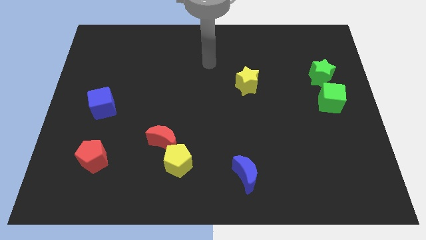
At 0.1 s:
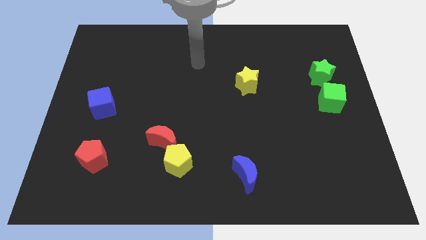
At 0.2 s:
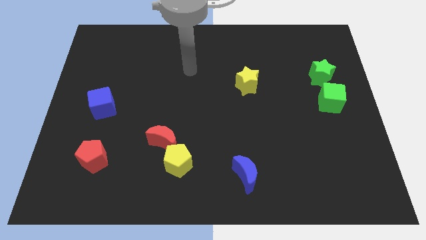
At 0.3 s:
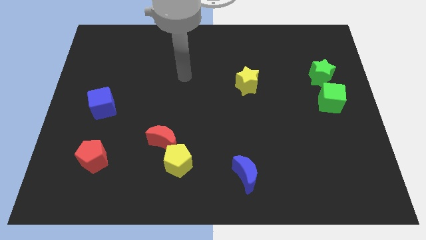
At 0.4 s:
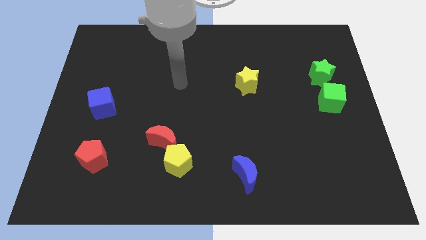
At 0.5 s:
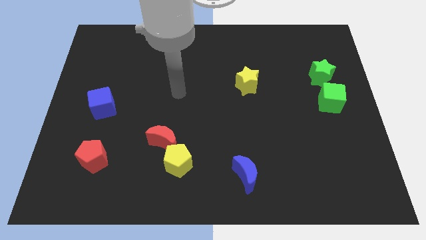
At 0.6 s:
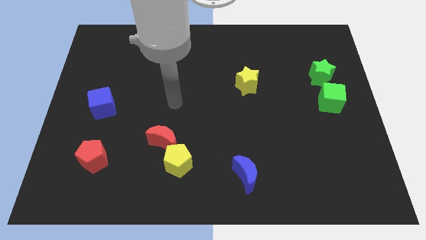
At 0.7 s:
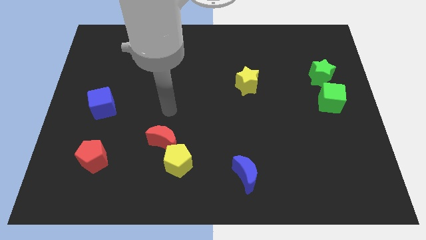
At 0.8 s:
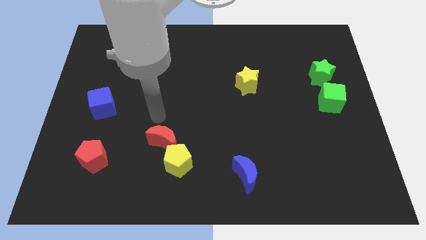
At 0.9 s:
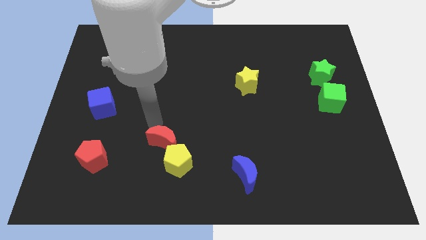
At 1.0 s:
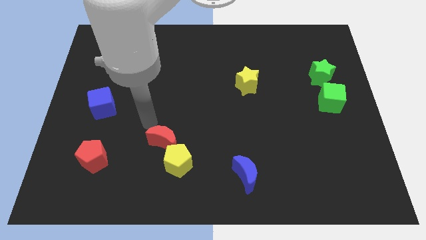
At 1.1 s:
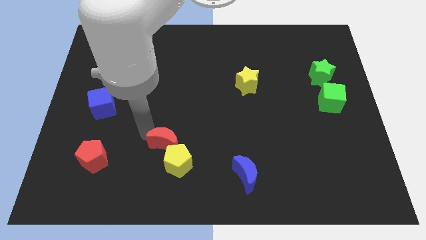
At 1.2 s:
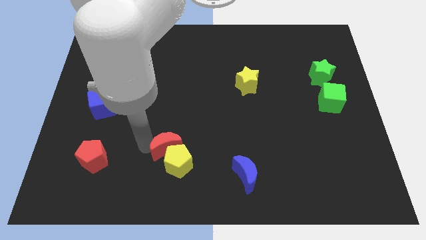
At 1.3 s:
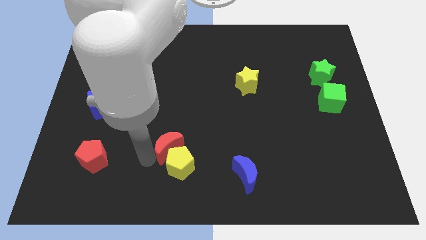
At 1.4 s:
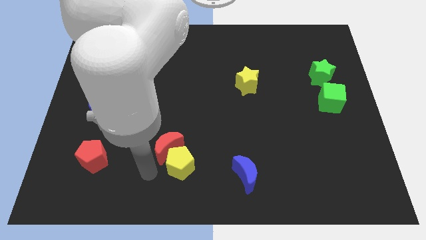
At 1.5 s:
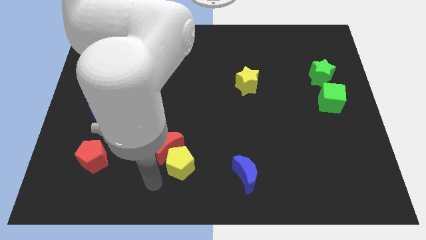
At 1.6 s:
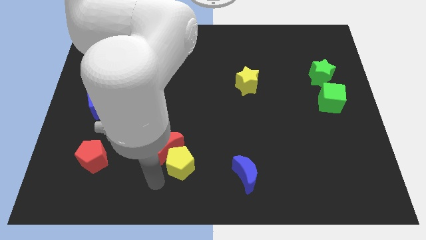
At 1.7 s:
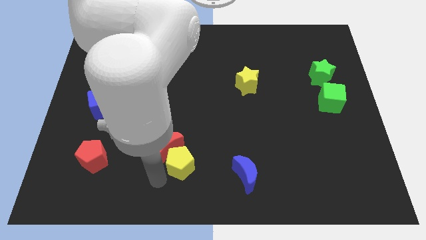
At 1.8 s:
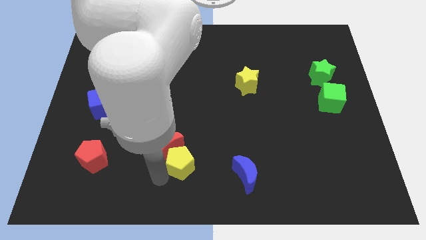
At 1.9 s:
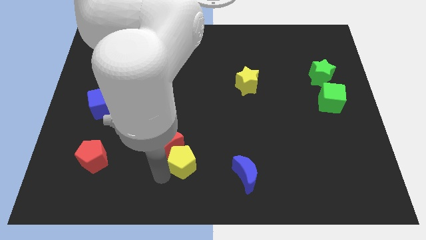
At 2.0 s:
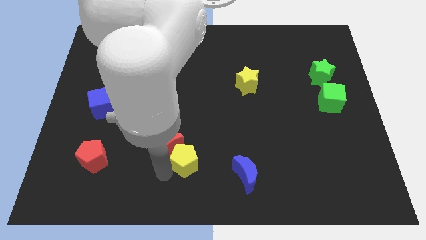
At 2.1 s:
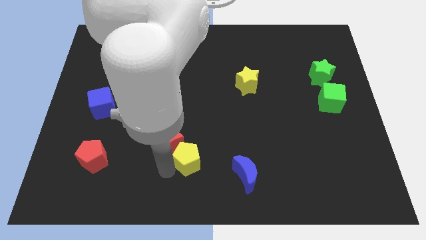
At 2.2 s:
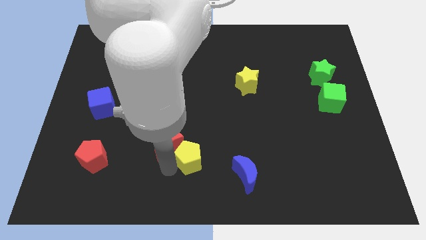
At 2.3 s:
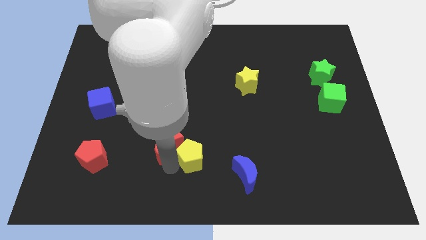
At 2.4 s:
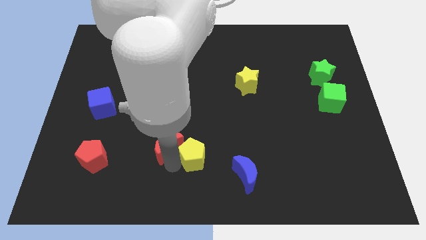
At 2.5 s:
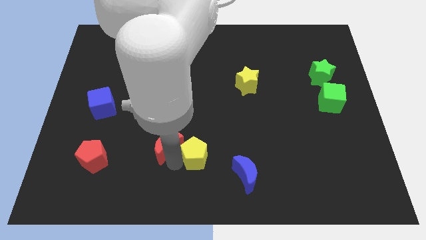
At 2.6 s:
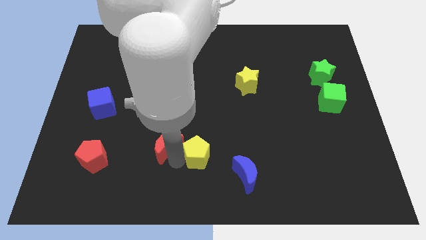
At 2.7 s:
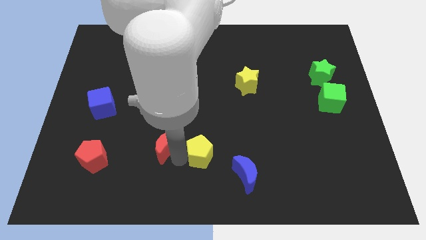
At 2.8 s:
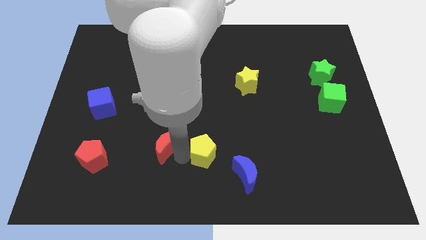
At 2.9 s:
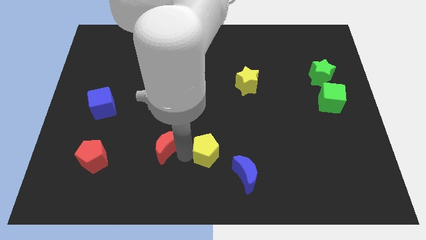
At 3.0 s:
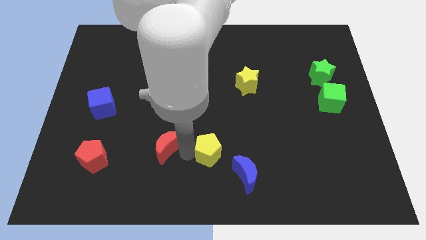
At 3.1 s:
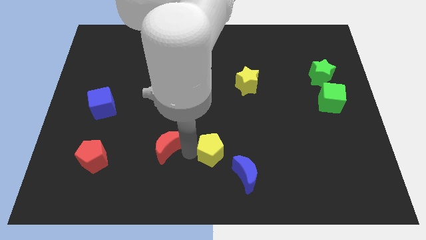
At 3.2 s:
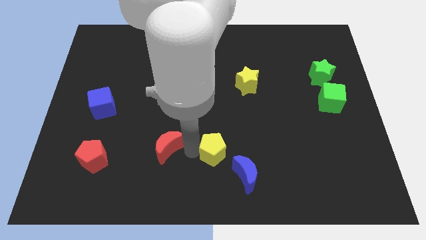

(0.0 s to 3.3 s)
move the yellow pentagon to the right a bit

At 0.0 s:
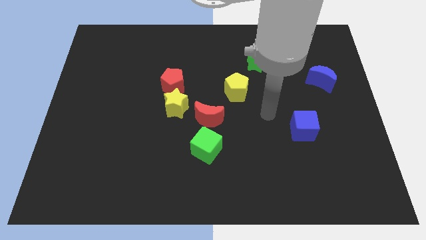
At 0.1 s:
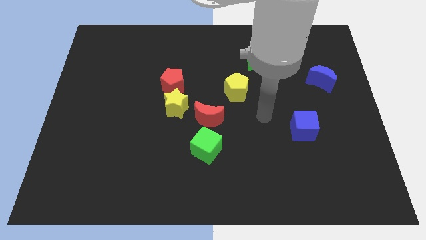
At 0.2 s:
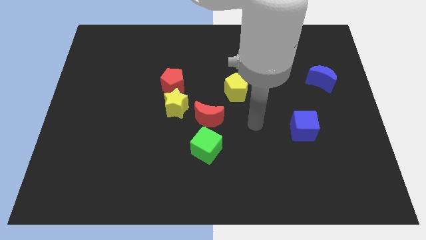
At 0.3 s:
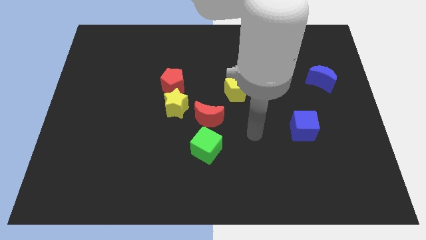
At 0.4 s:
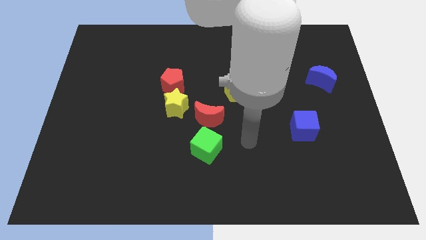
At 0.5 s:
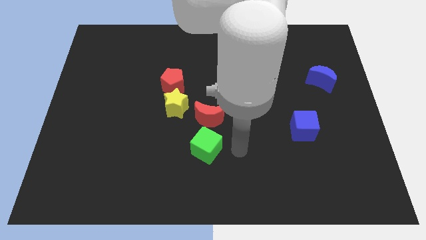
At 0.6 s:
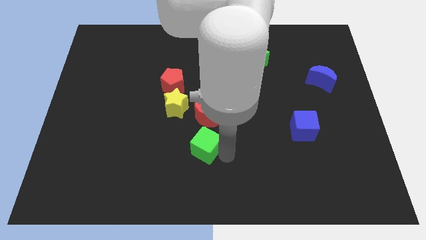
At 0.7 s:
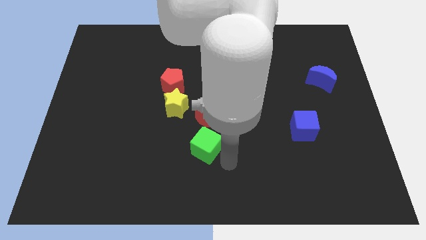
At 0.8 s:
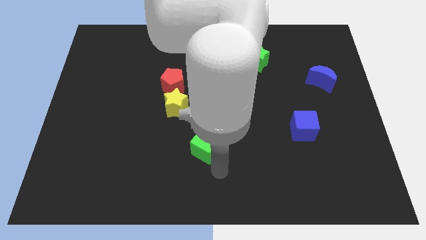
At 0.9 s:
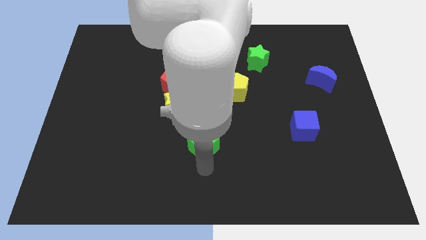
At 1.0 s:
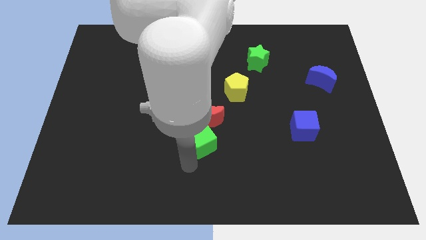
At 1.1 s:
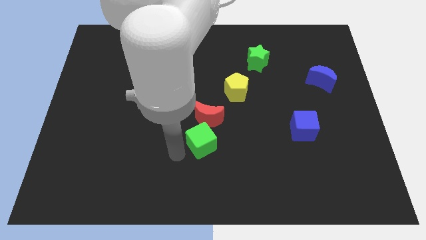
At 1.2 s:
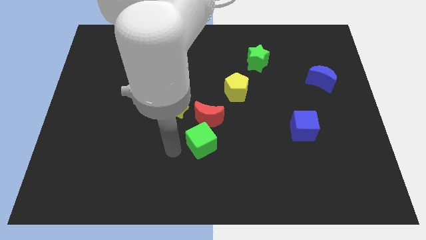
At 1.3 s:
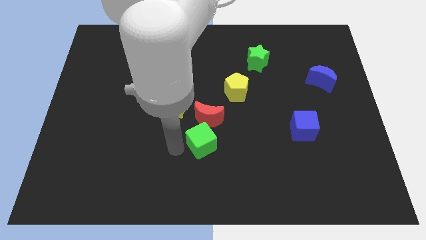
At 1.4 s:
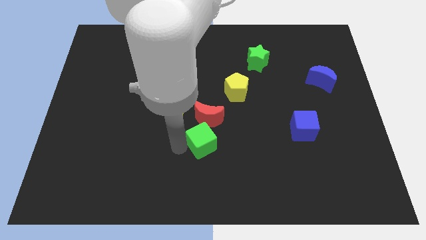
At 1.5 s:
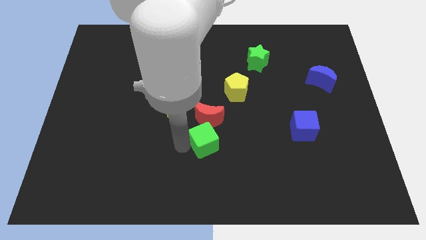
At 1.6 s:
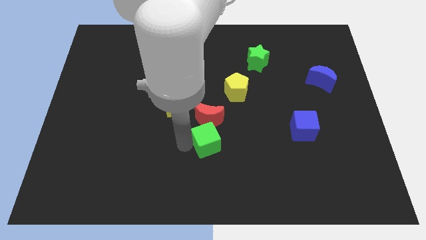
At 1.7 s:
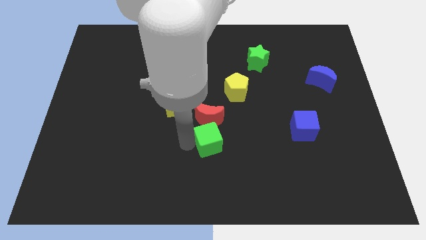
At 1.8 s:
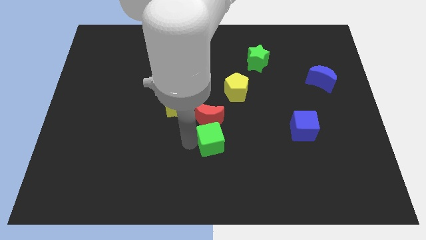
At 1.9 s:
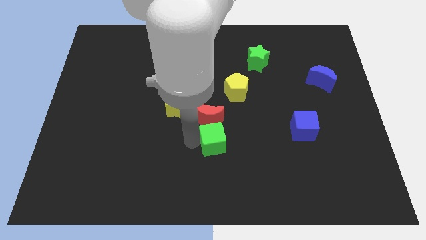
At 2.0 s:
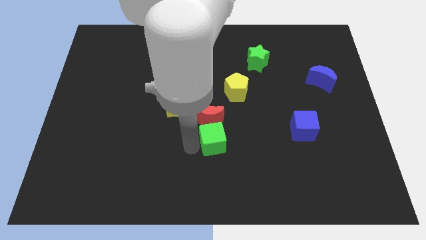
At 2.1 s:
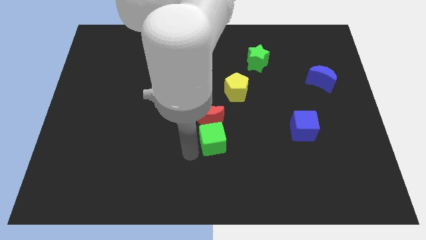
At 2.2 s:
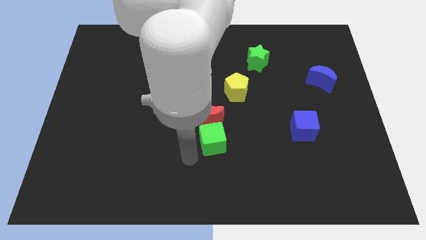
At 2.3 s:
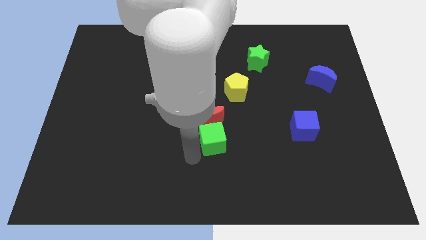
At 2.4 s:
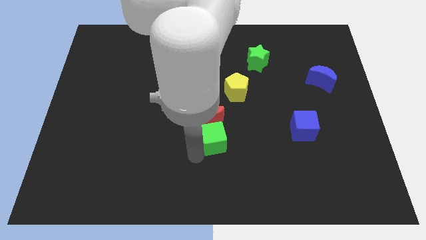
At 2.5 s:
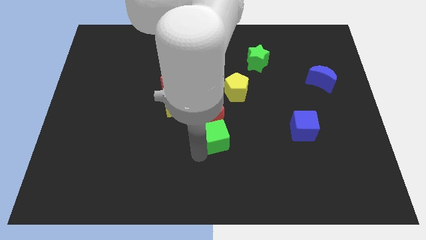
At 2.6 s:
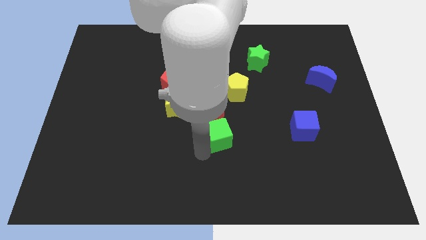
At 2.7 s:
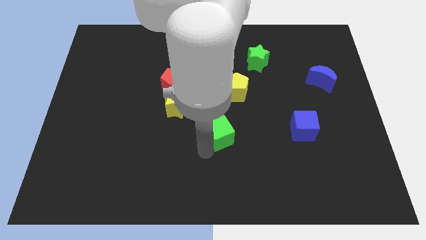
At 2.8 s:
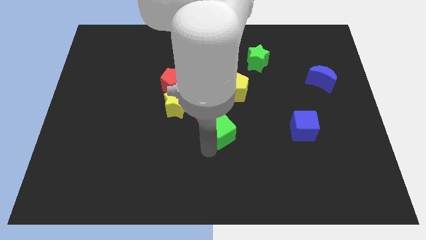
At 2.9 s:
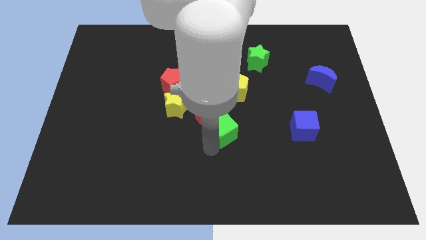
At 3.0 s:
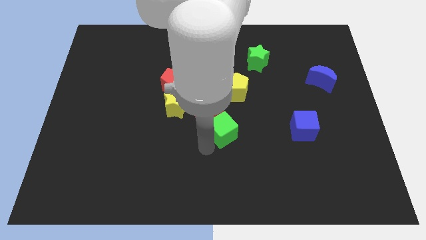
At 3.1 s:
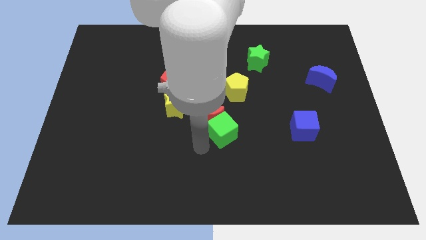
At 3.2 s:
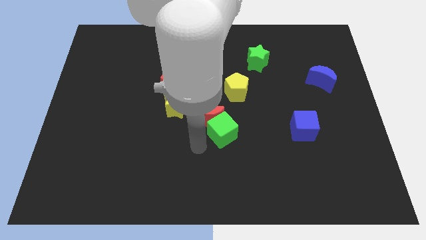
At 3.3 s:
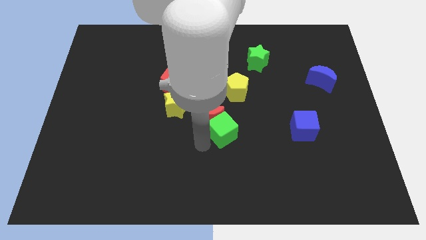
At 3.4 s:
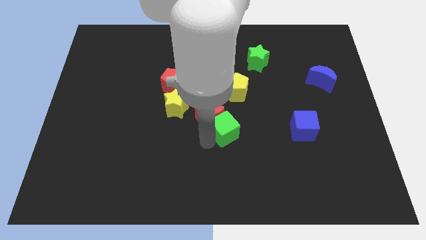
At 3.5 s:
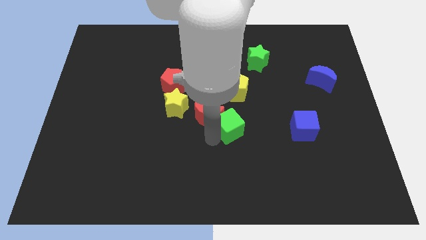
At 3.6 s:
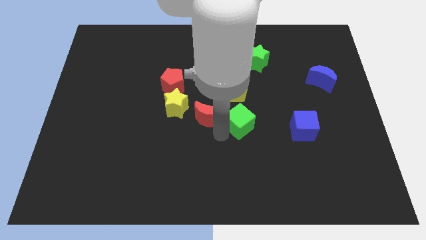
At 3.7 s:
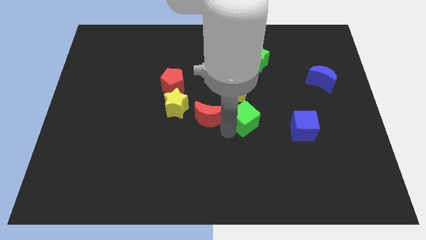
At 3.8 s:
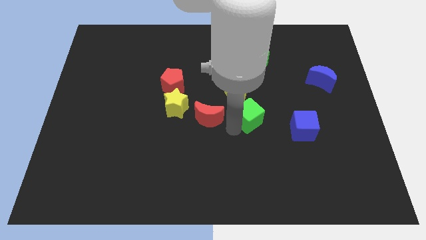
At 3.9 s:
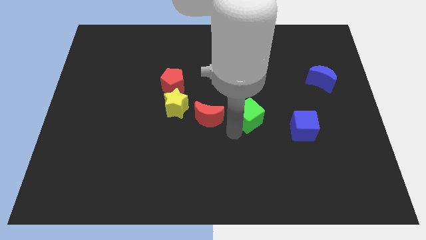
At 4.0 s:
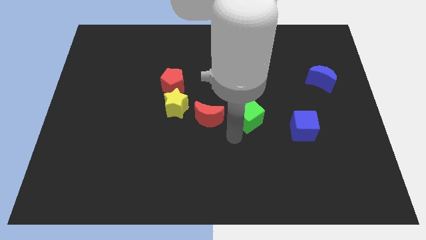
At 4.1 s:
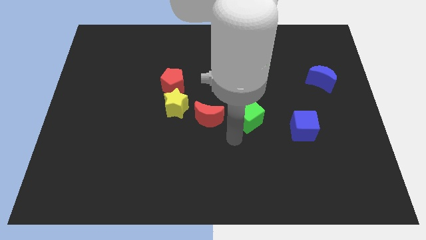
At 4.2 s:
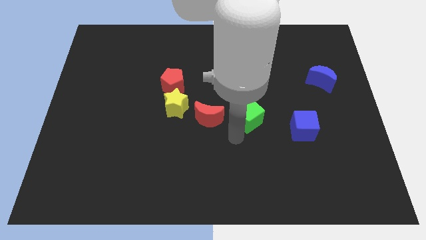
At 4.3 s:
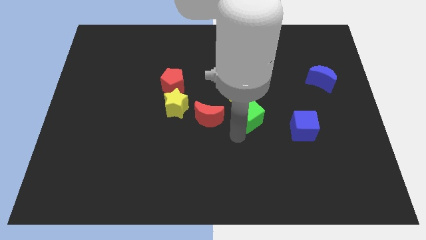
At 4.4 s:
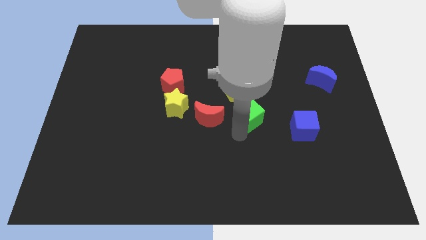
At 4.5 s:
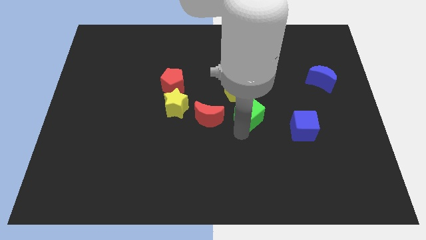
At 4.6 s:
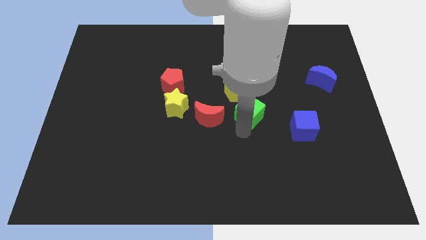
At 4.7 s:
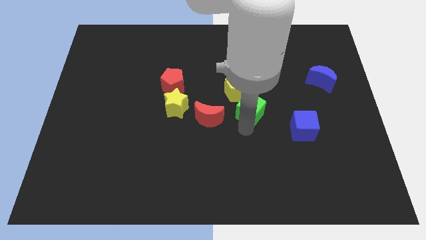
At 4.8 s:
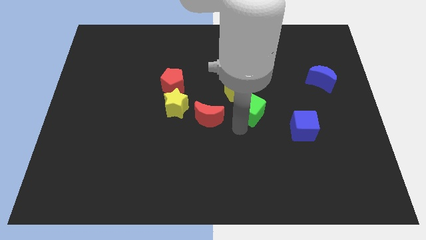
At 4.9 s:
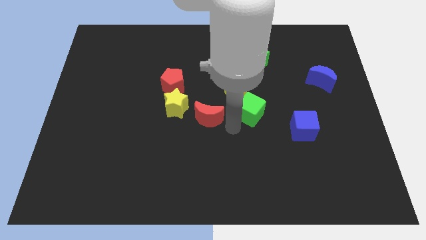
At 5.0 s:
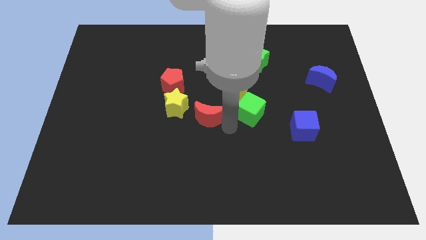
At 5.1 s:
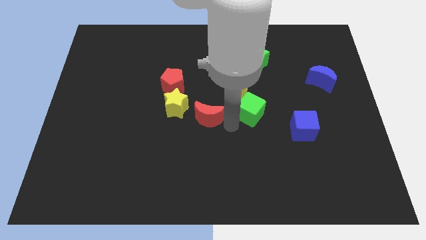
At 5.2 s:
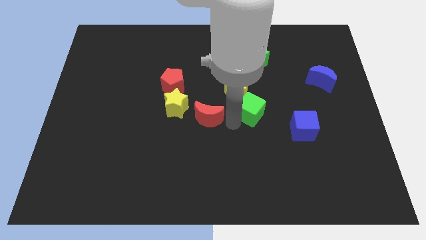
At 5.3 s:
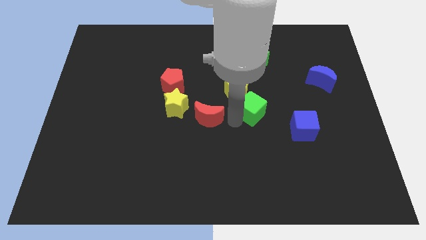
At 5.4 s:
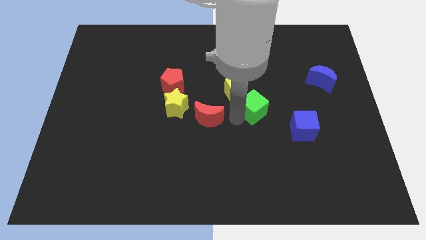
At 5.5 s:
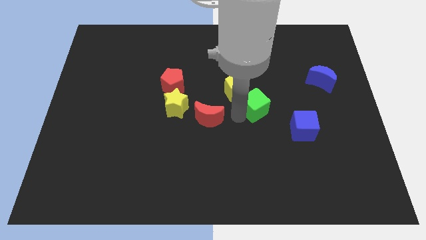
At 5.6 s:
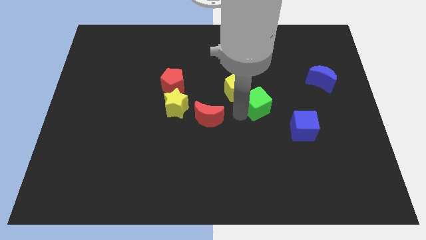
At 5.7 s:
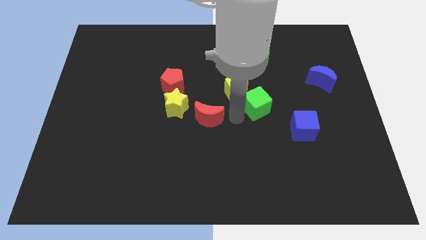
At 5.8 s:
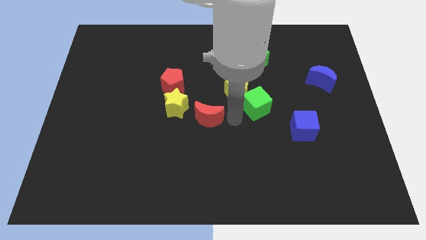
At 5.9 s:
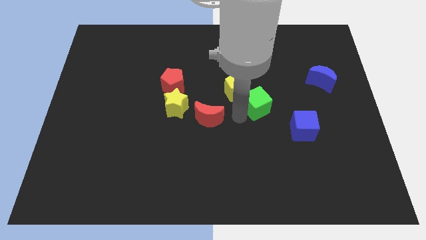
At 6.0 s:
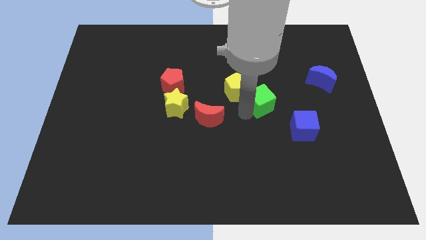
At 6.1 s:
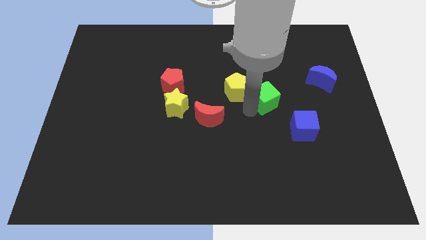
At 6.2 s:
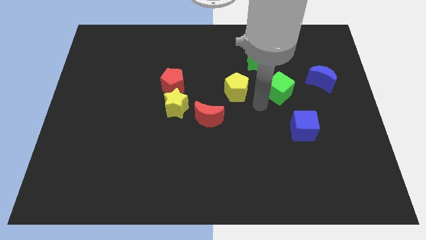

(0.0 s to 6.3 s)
push the green cube up and right
